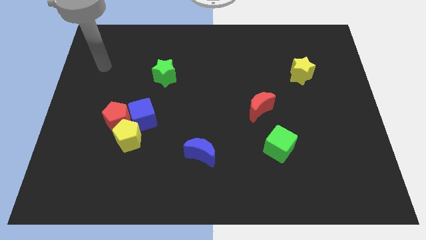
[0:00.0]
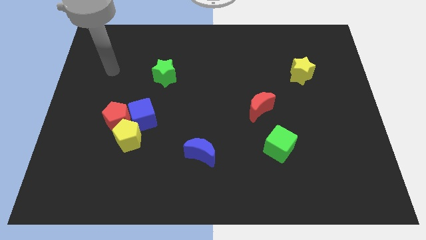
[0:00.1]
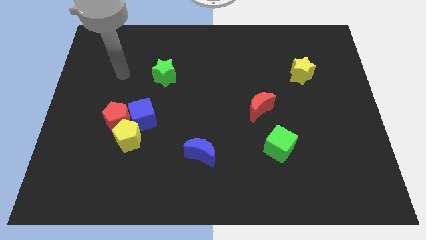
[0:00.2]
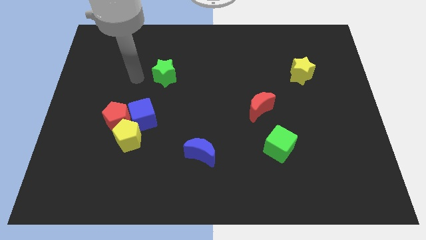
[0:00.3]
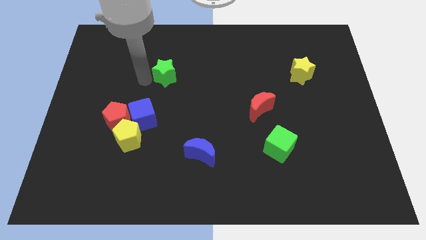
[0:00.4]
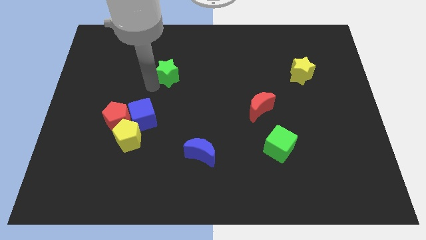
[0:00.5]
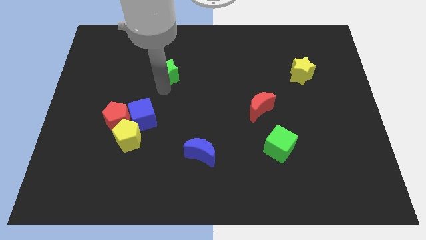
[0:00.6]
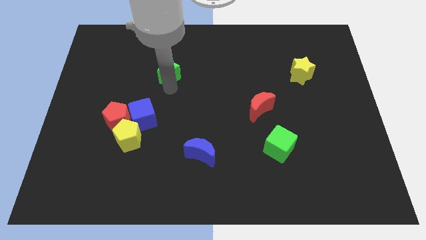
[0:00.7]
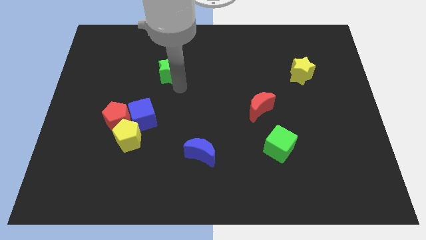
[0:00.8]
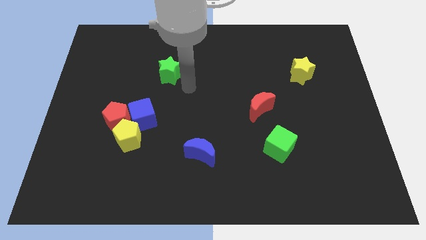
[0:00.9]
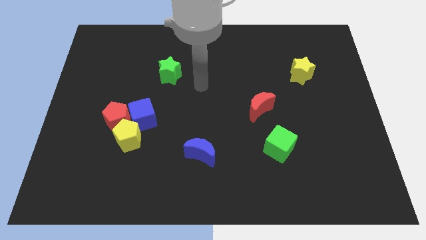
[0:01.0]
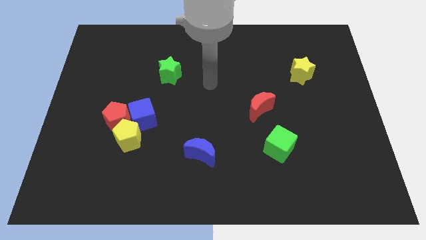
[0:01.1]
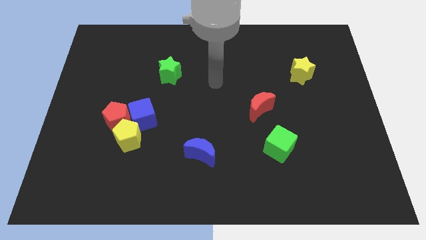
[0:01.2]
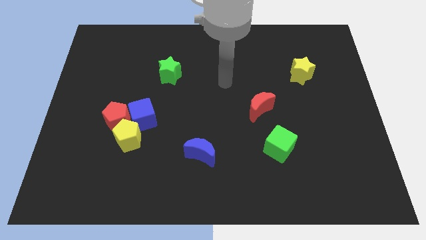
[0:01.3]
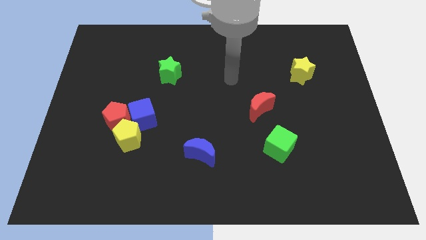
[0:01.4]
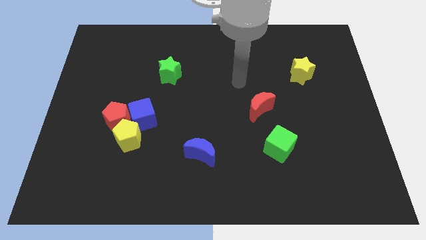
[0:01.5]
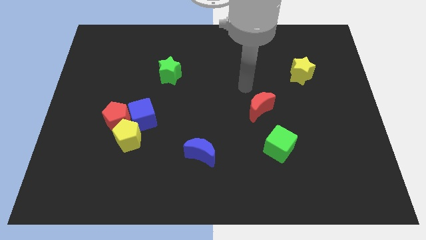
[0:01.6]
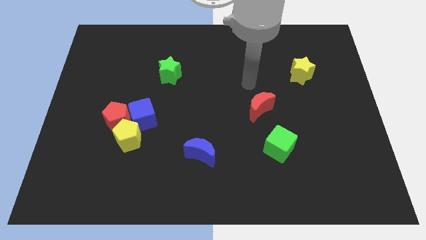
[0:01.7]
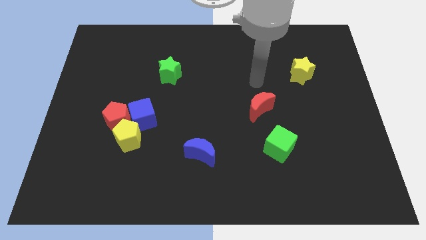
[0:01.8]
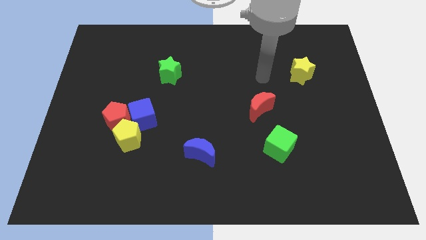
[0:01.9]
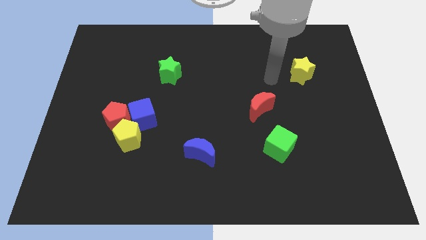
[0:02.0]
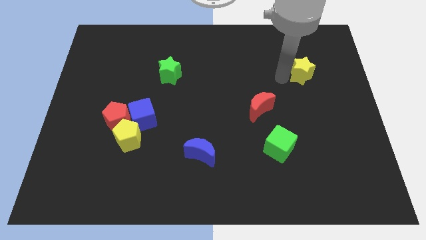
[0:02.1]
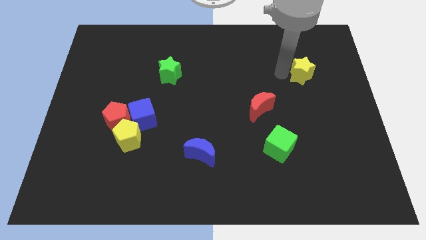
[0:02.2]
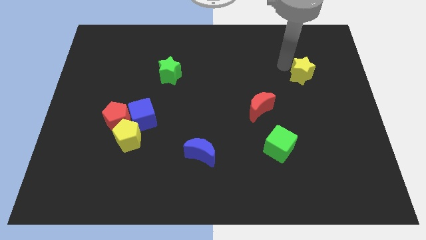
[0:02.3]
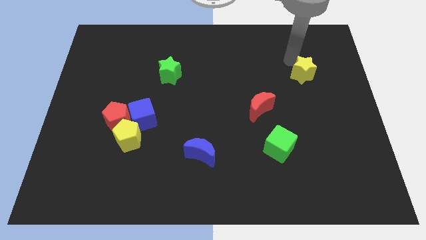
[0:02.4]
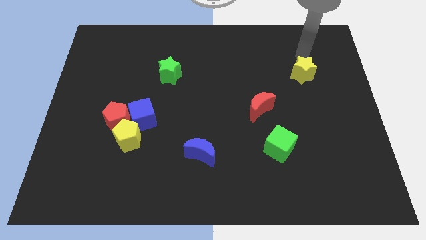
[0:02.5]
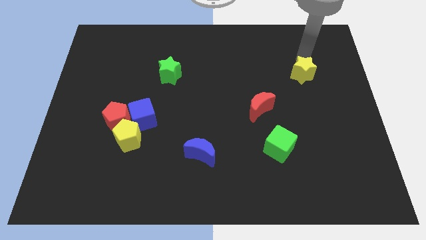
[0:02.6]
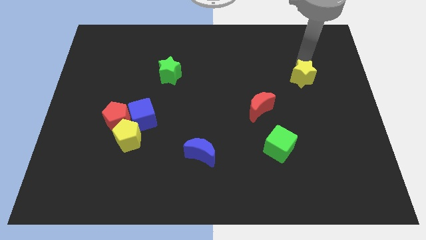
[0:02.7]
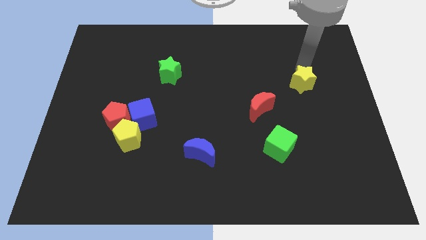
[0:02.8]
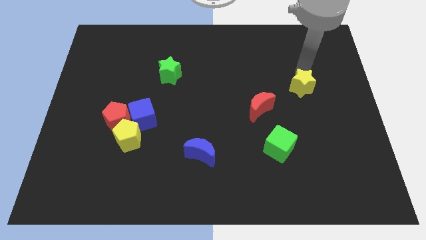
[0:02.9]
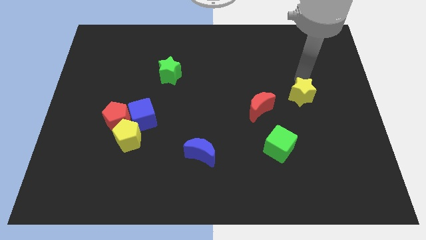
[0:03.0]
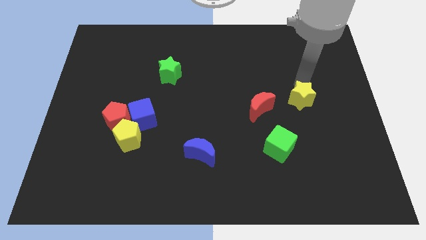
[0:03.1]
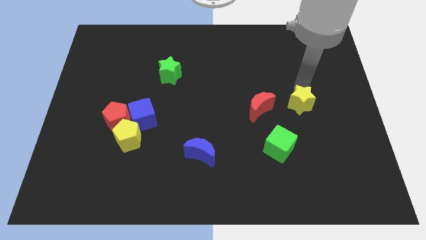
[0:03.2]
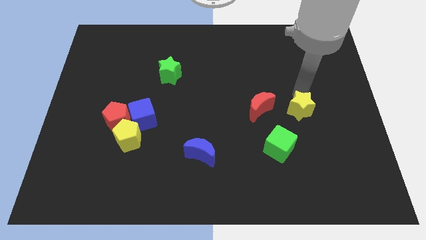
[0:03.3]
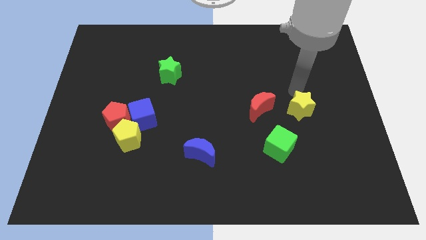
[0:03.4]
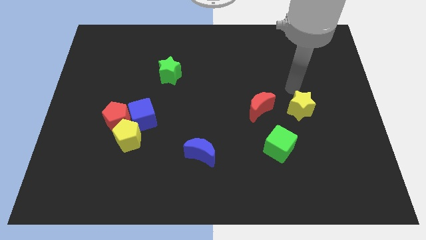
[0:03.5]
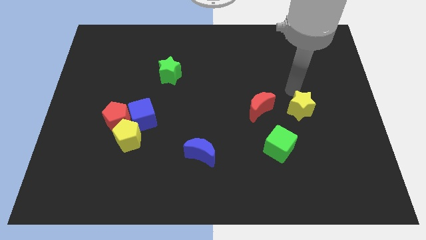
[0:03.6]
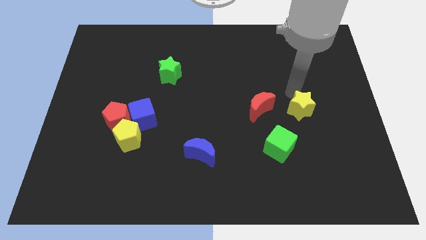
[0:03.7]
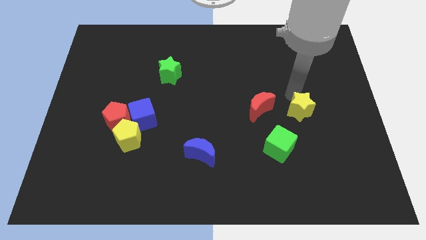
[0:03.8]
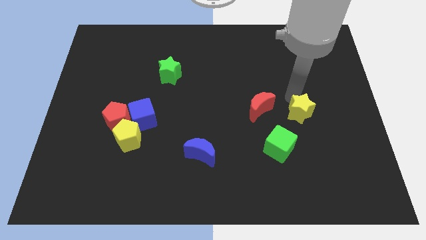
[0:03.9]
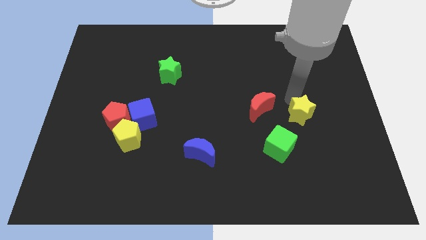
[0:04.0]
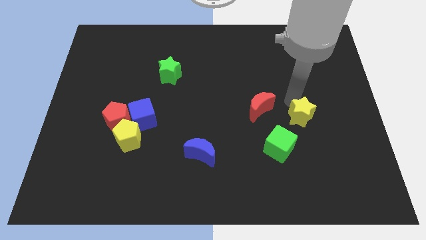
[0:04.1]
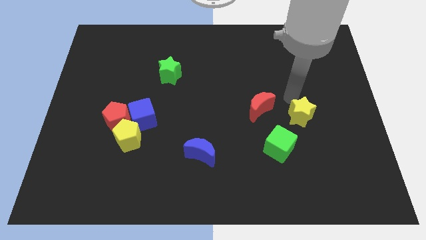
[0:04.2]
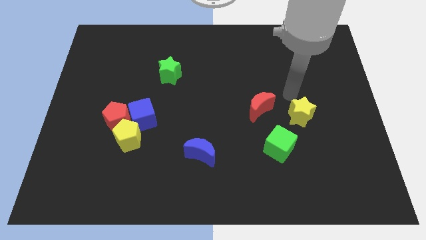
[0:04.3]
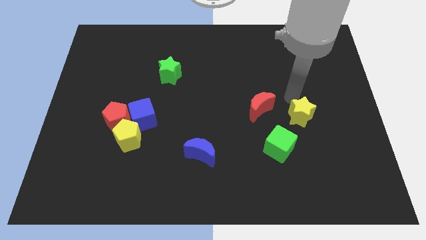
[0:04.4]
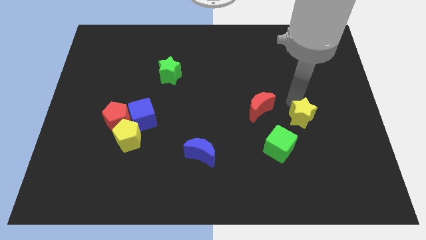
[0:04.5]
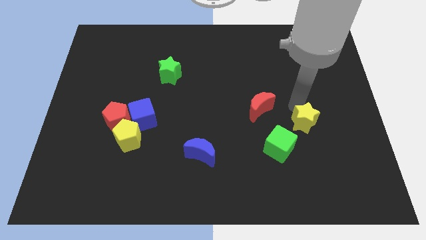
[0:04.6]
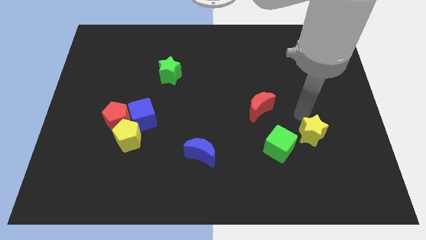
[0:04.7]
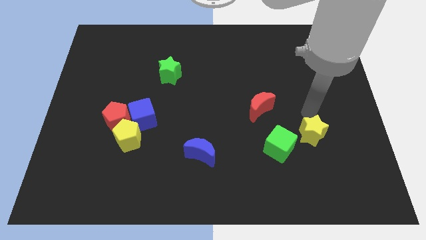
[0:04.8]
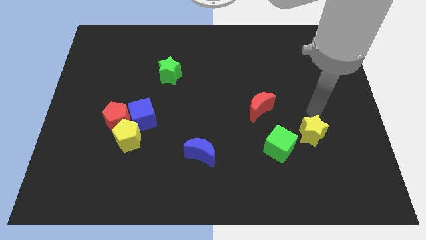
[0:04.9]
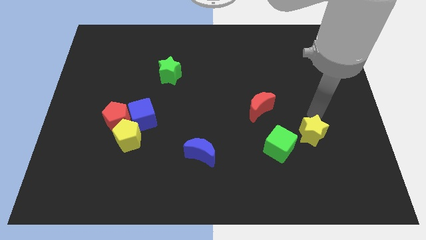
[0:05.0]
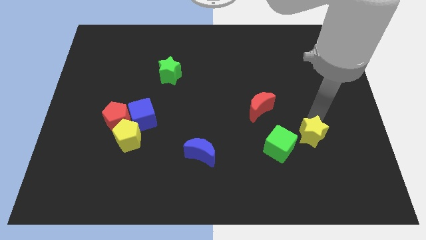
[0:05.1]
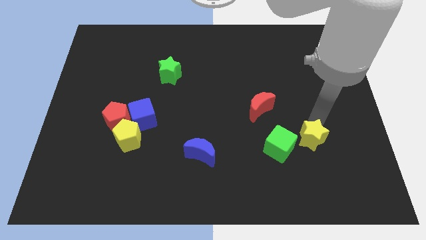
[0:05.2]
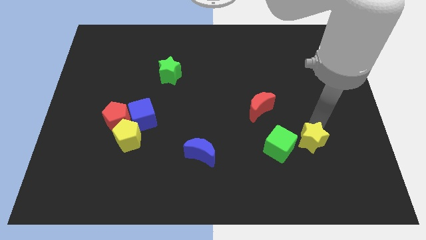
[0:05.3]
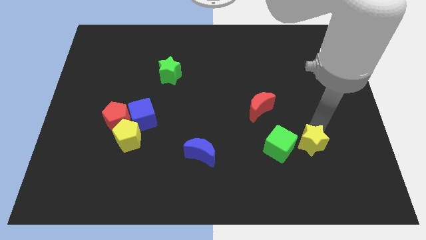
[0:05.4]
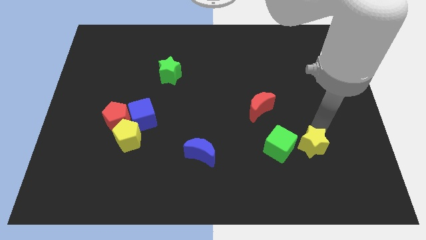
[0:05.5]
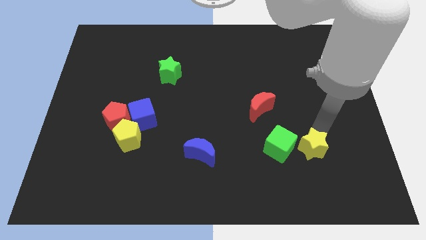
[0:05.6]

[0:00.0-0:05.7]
put the yellow star to the bottom right side of the green cube

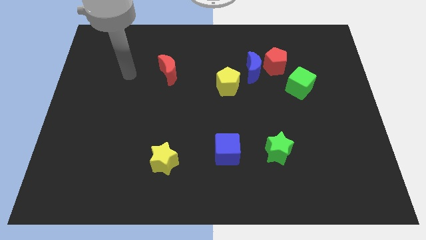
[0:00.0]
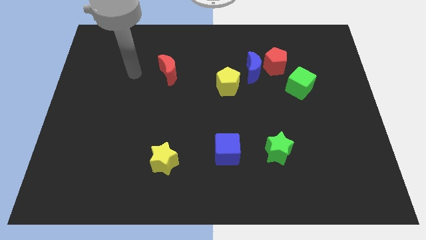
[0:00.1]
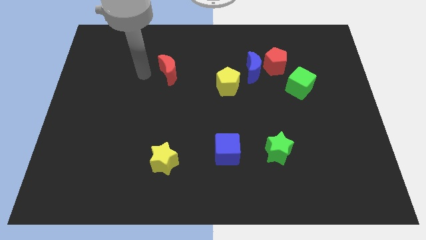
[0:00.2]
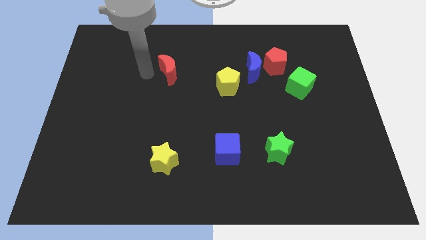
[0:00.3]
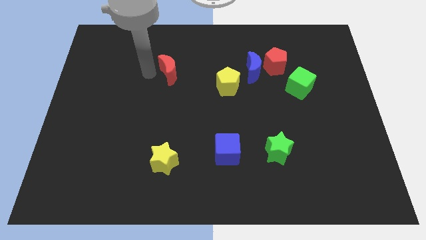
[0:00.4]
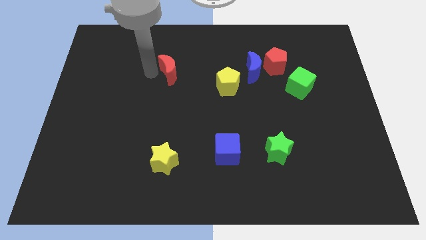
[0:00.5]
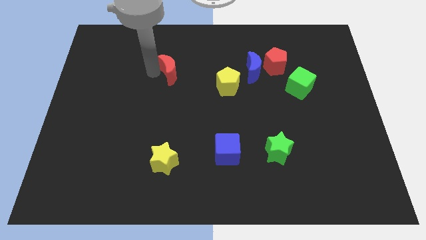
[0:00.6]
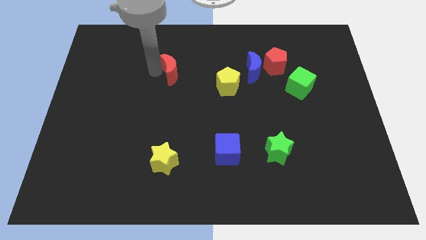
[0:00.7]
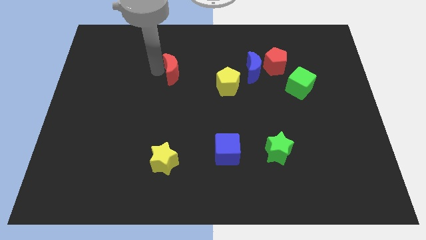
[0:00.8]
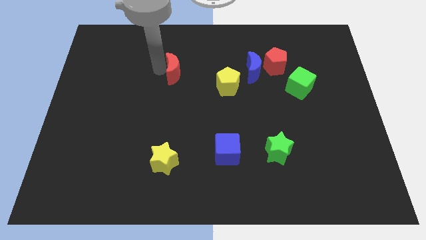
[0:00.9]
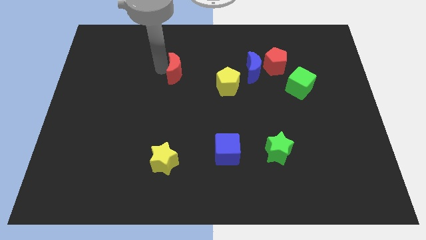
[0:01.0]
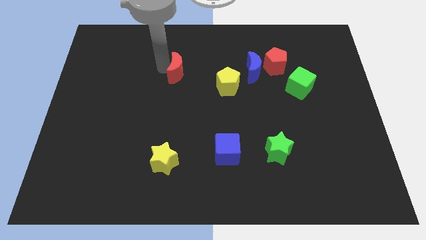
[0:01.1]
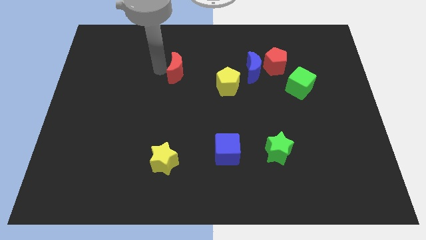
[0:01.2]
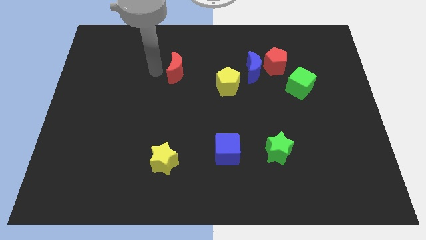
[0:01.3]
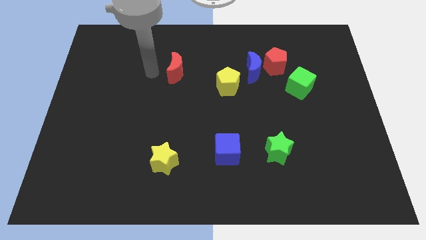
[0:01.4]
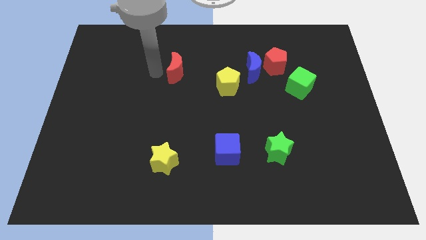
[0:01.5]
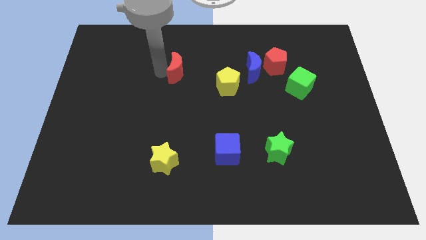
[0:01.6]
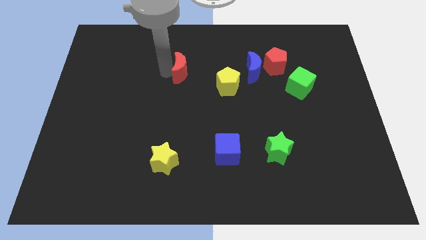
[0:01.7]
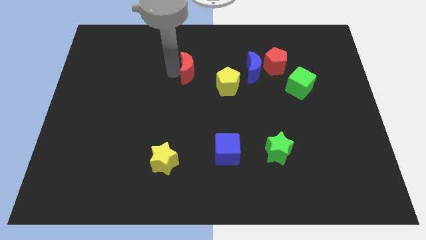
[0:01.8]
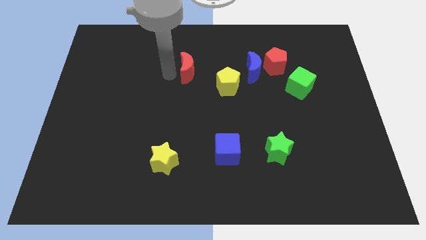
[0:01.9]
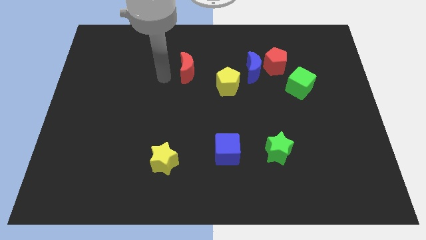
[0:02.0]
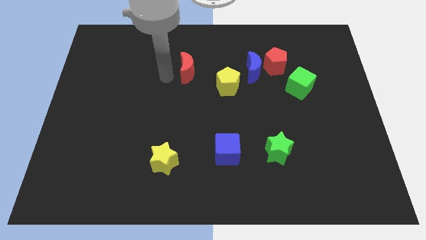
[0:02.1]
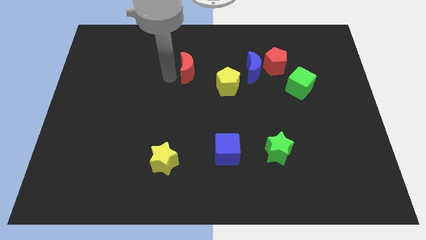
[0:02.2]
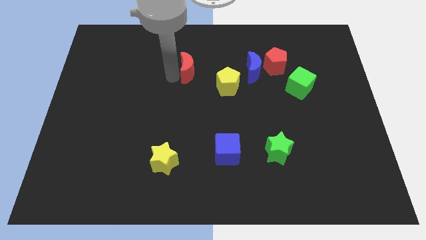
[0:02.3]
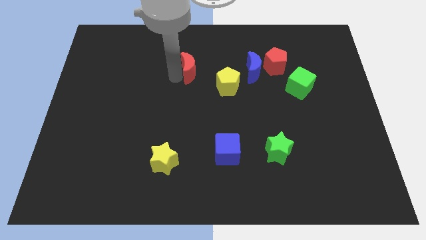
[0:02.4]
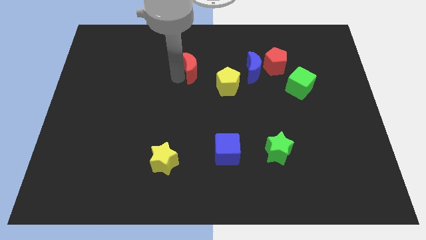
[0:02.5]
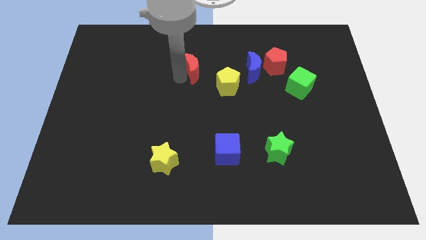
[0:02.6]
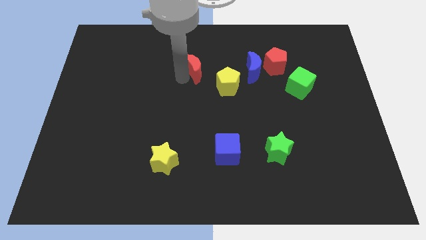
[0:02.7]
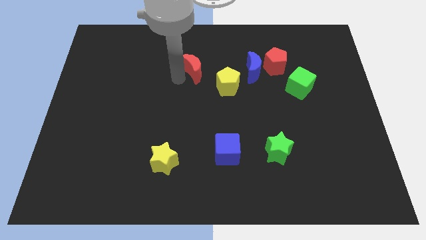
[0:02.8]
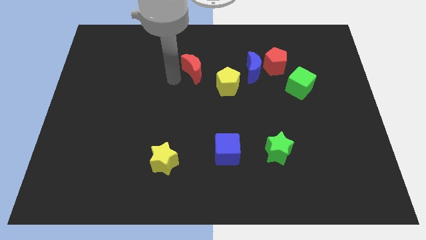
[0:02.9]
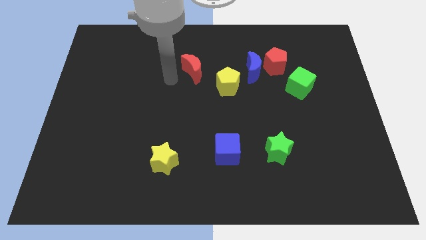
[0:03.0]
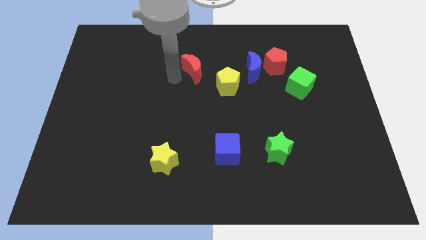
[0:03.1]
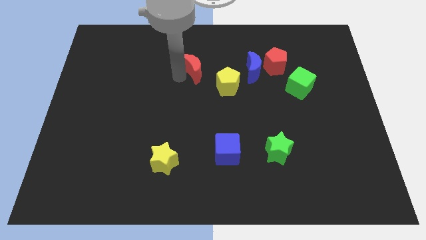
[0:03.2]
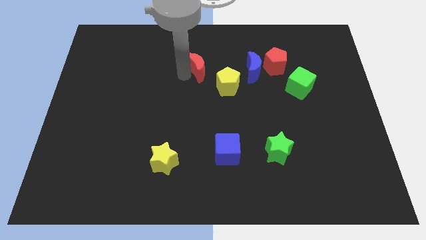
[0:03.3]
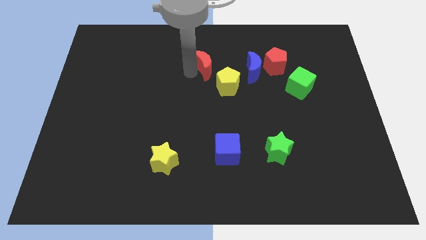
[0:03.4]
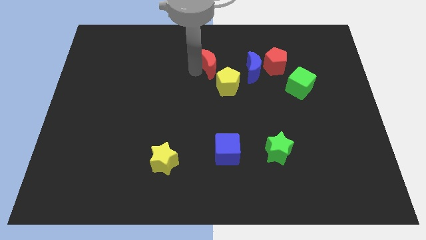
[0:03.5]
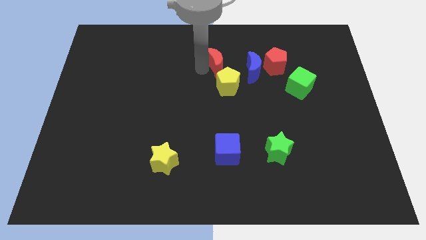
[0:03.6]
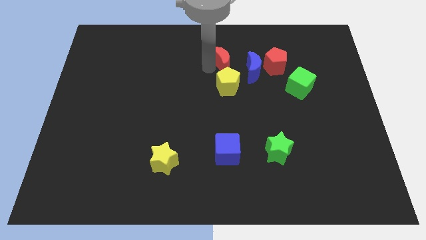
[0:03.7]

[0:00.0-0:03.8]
move the red moon to the top left of the blue moon
